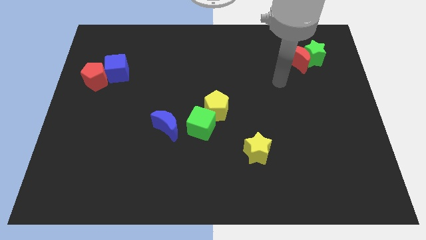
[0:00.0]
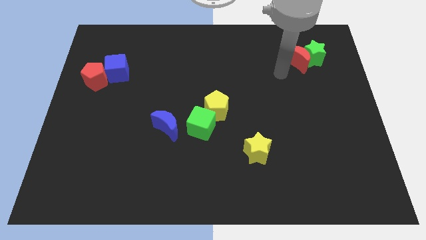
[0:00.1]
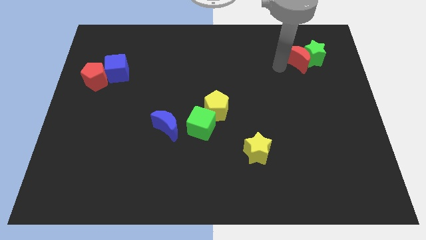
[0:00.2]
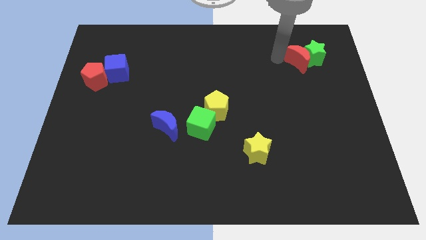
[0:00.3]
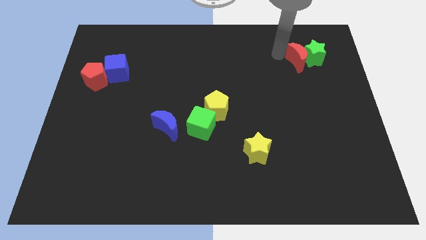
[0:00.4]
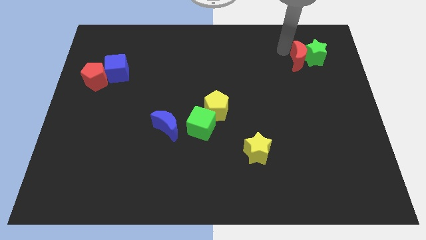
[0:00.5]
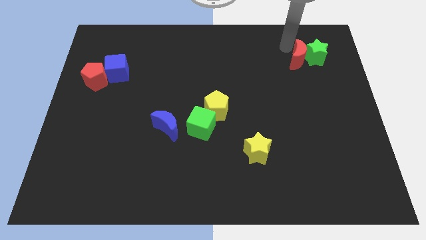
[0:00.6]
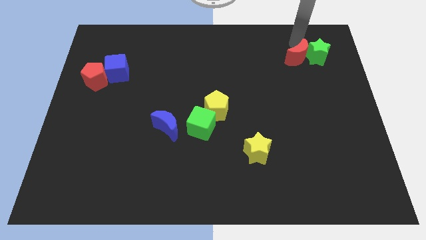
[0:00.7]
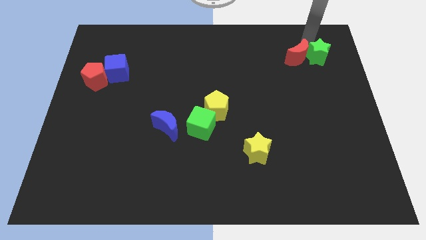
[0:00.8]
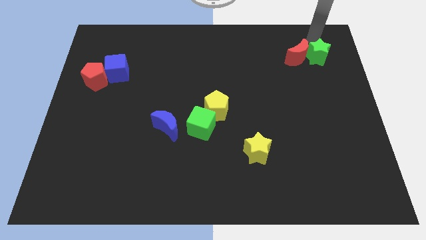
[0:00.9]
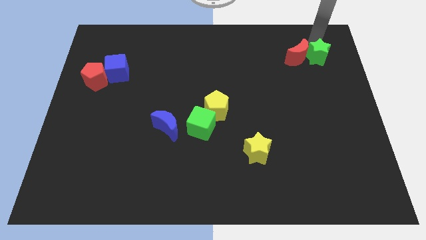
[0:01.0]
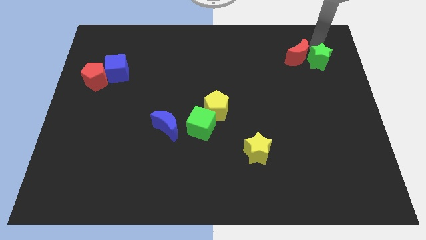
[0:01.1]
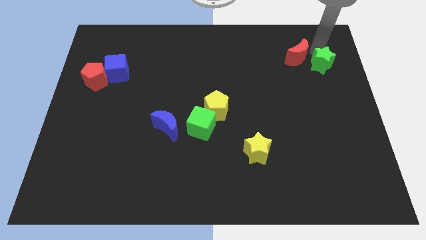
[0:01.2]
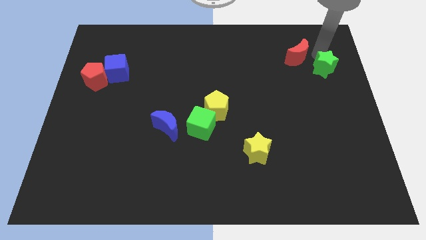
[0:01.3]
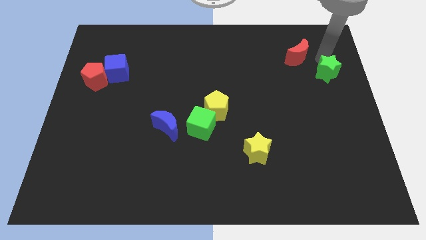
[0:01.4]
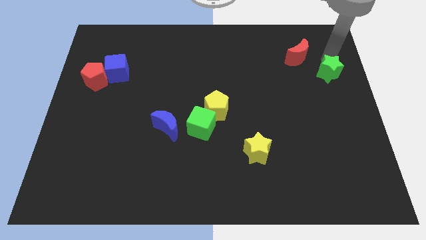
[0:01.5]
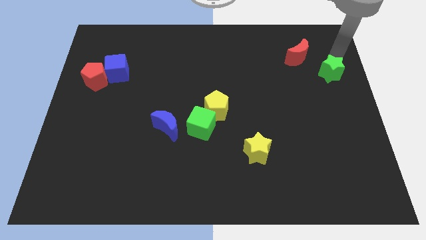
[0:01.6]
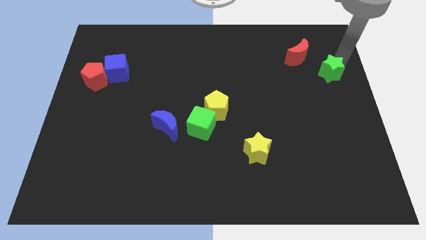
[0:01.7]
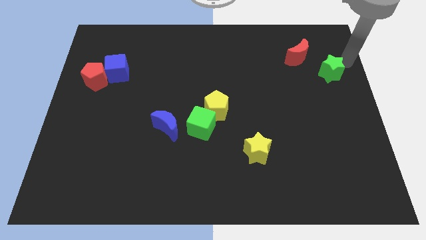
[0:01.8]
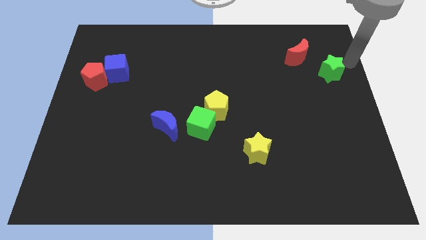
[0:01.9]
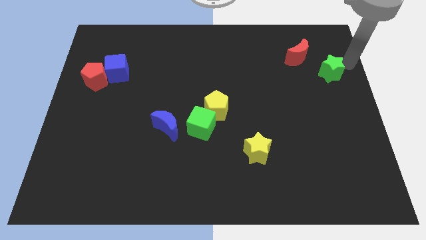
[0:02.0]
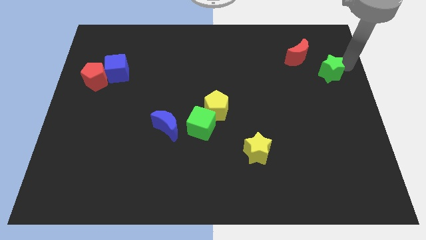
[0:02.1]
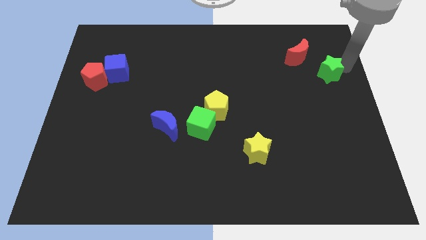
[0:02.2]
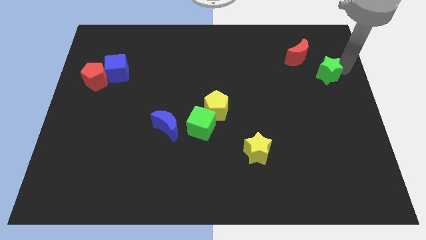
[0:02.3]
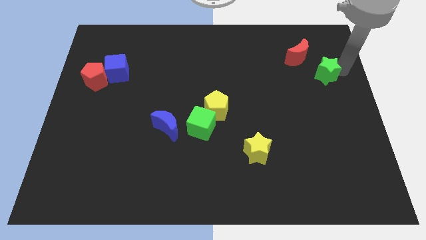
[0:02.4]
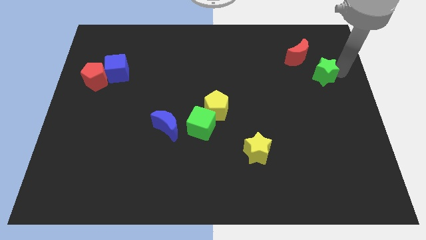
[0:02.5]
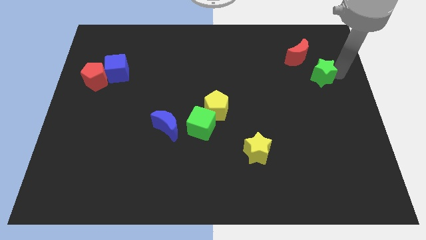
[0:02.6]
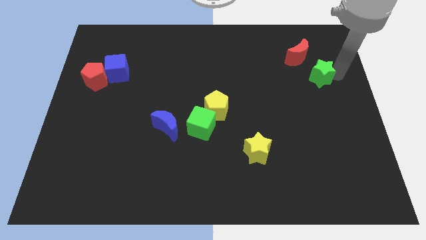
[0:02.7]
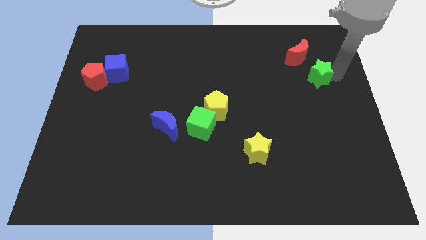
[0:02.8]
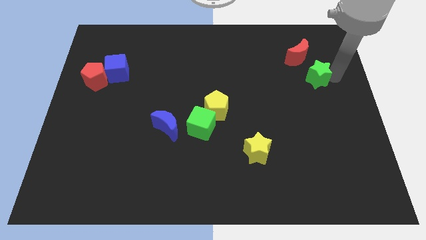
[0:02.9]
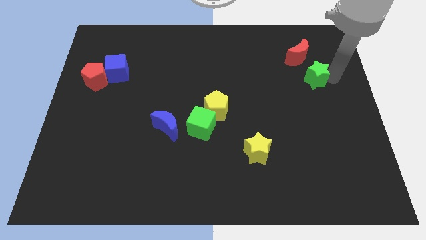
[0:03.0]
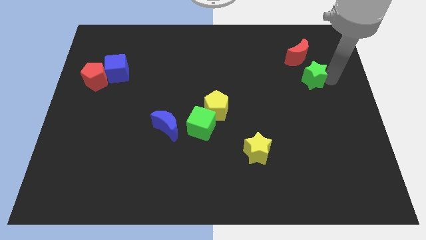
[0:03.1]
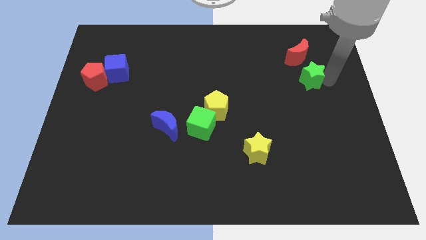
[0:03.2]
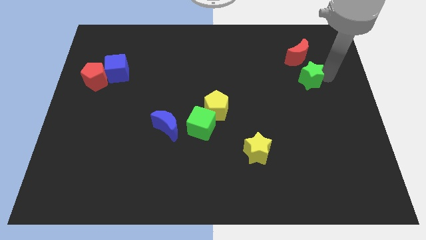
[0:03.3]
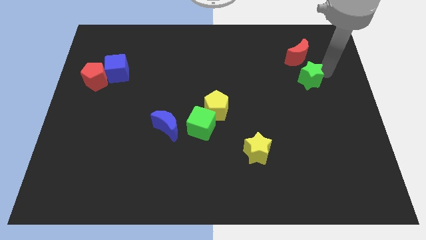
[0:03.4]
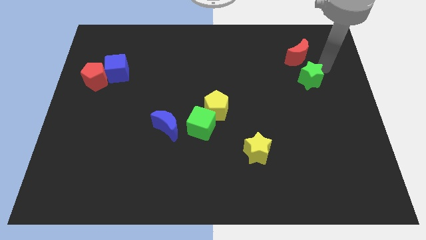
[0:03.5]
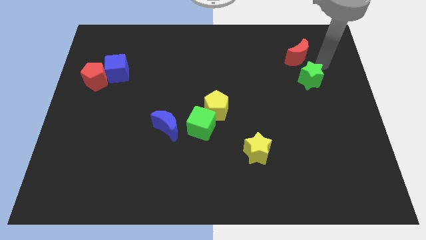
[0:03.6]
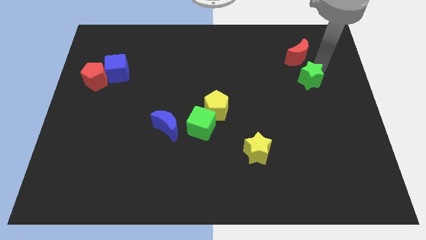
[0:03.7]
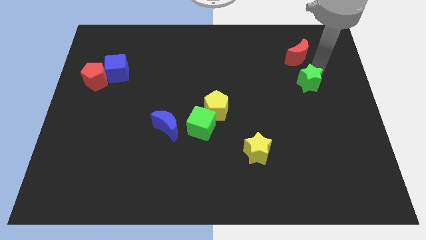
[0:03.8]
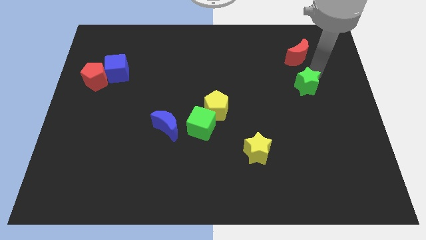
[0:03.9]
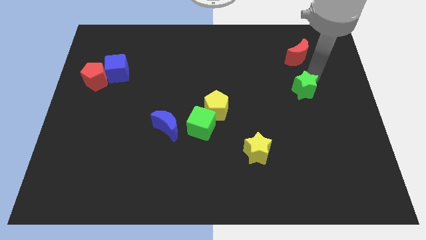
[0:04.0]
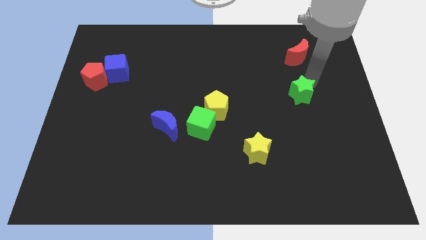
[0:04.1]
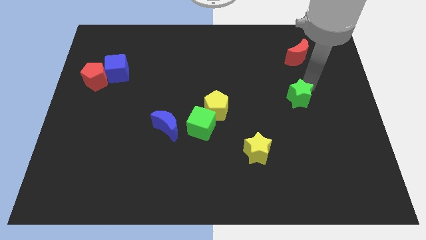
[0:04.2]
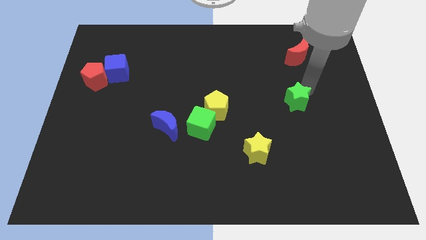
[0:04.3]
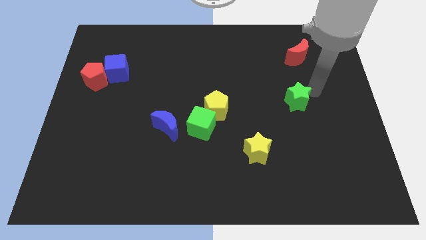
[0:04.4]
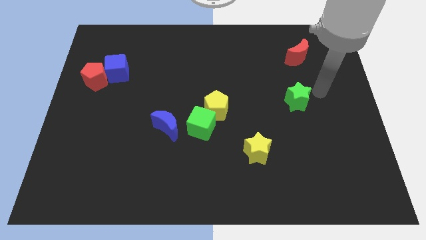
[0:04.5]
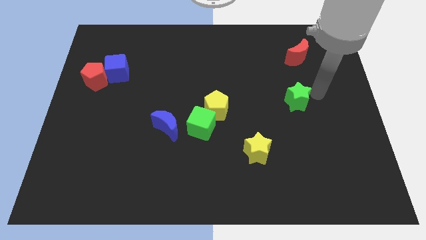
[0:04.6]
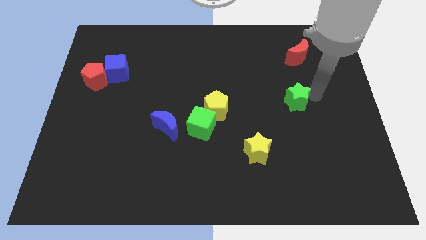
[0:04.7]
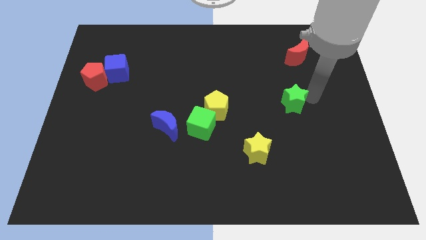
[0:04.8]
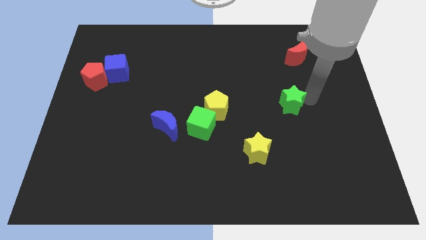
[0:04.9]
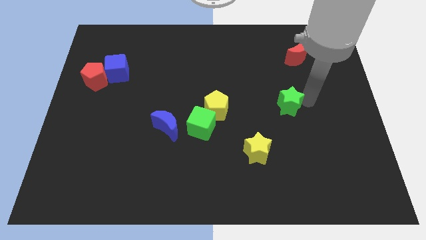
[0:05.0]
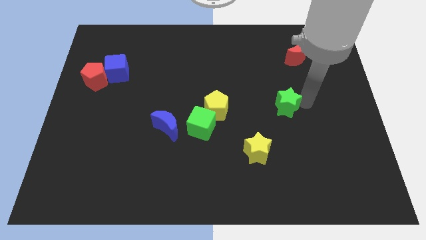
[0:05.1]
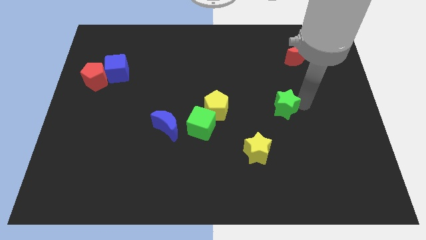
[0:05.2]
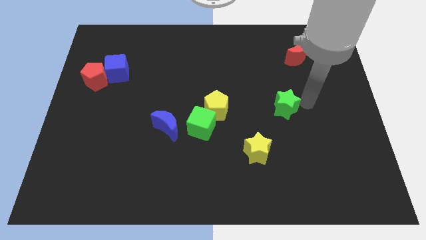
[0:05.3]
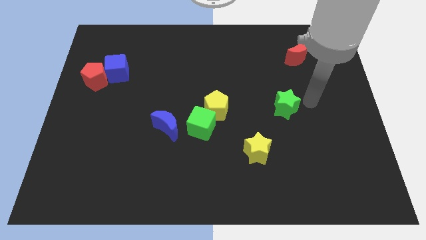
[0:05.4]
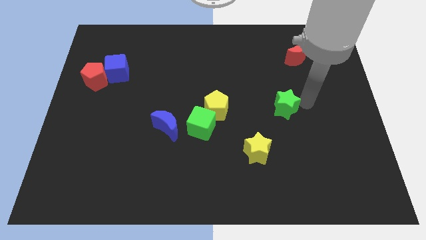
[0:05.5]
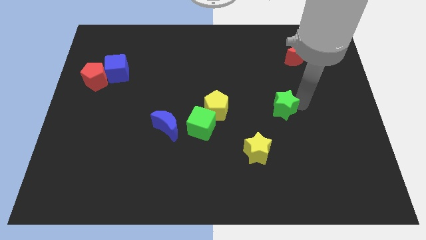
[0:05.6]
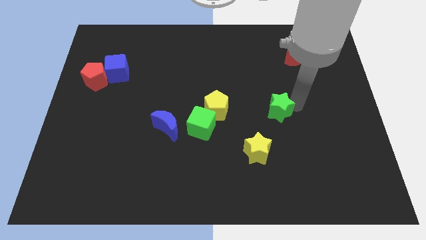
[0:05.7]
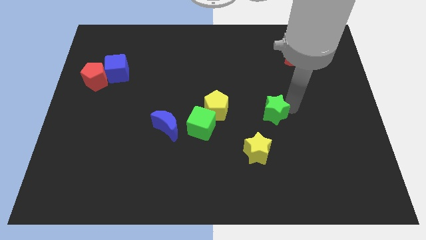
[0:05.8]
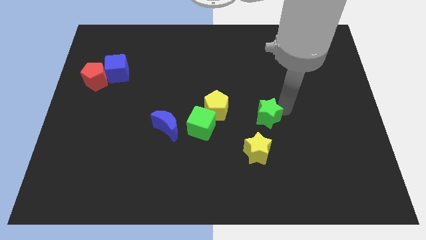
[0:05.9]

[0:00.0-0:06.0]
put the green star to the right of the green cube

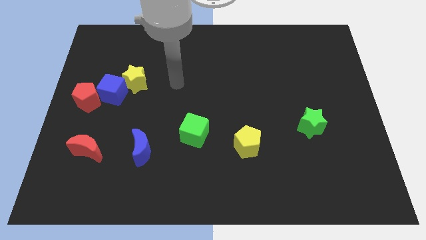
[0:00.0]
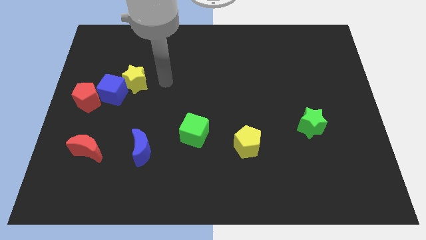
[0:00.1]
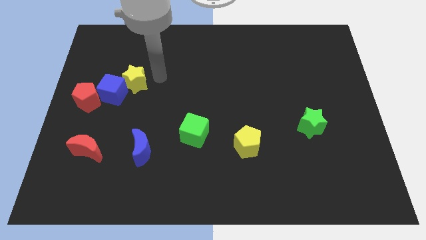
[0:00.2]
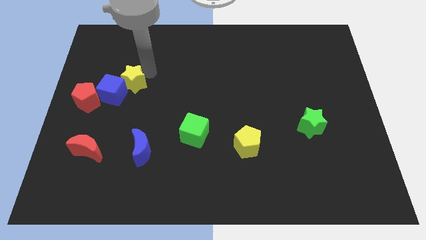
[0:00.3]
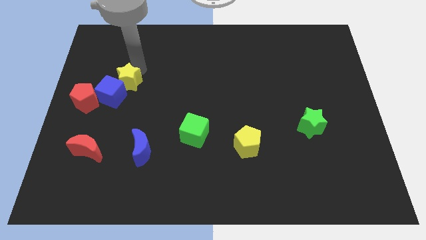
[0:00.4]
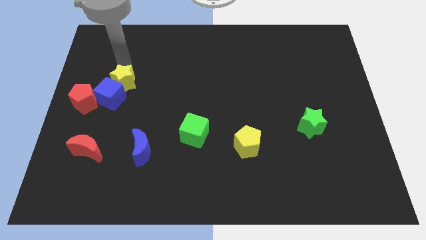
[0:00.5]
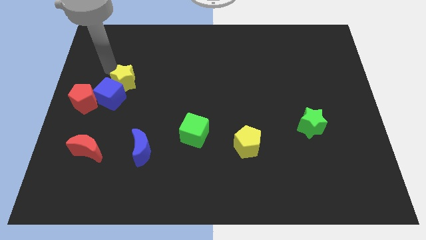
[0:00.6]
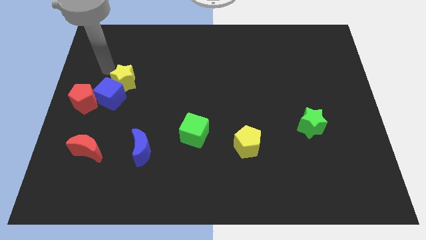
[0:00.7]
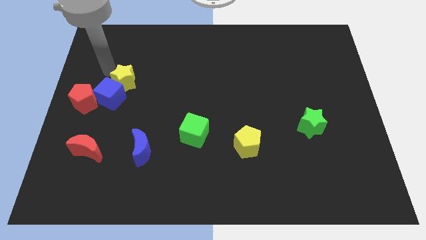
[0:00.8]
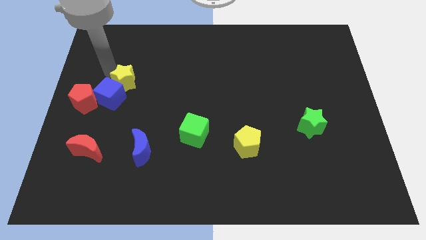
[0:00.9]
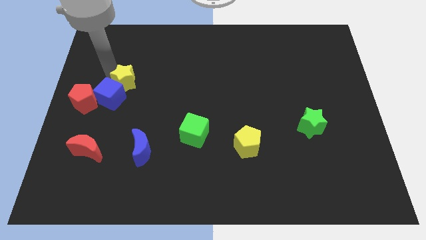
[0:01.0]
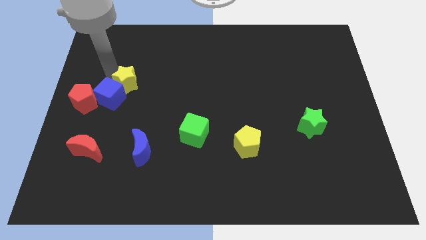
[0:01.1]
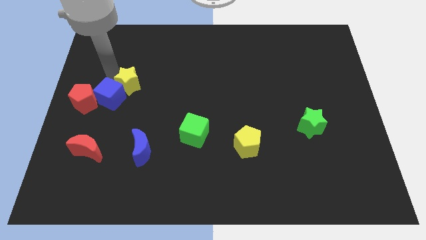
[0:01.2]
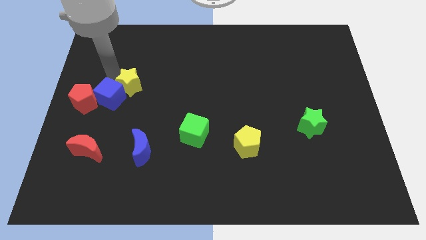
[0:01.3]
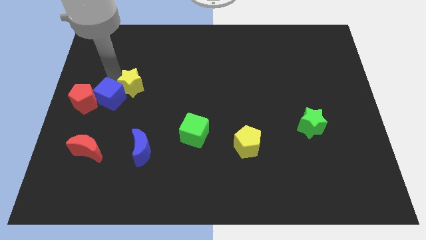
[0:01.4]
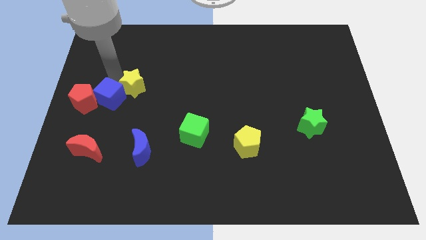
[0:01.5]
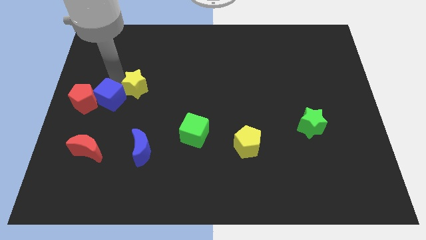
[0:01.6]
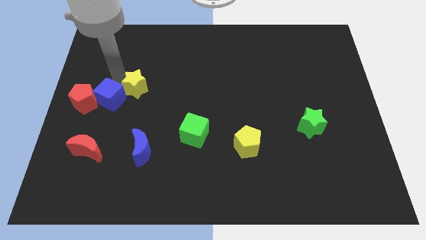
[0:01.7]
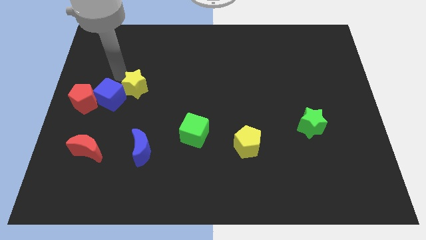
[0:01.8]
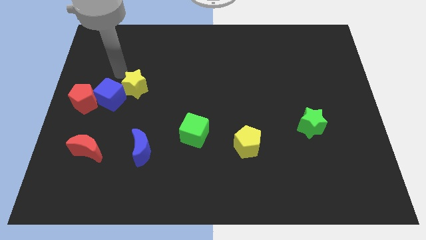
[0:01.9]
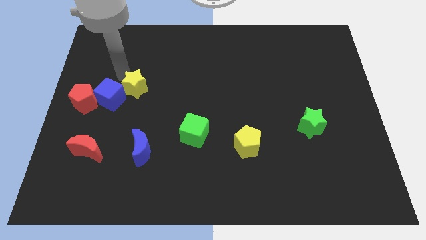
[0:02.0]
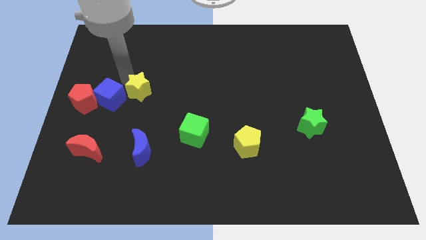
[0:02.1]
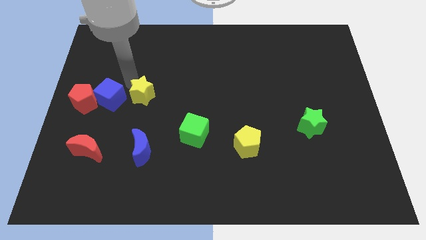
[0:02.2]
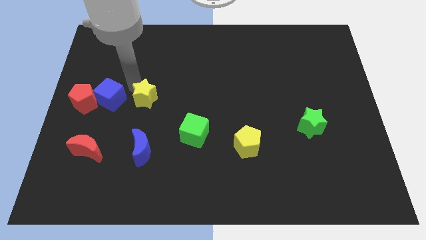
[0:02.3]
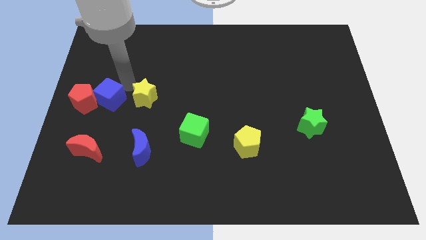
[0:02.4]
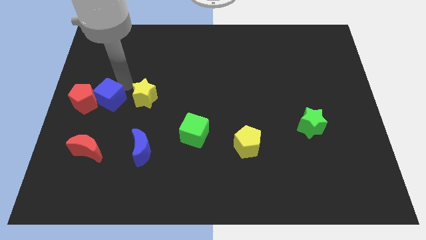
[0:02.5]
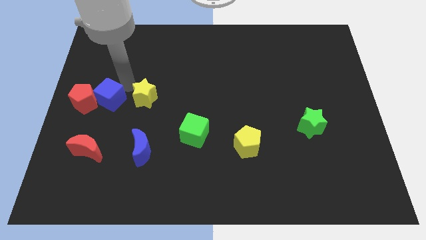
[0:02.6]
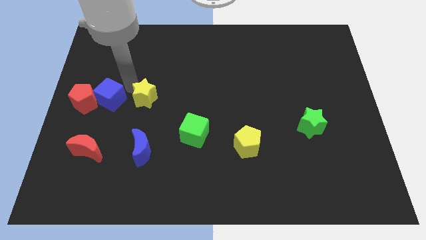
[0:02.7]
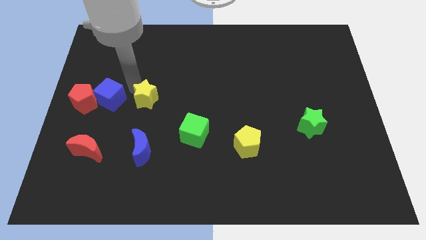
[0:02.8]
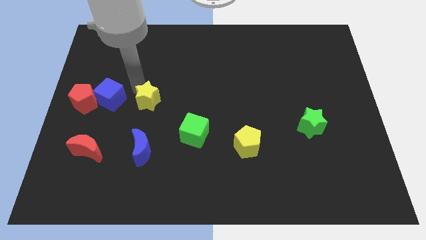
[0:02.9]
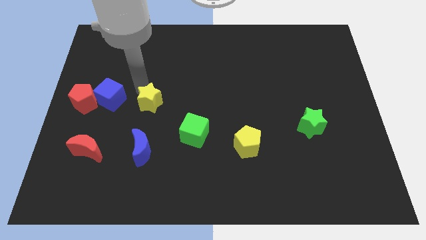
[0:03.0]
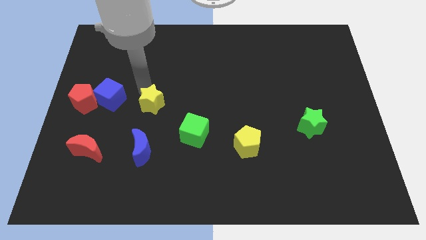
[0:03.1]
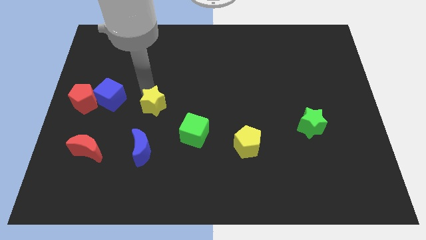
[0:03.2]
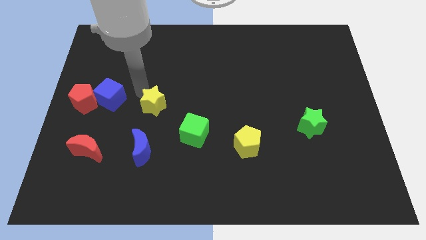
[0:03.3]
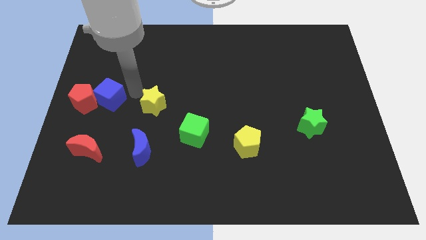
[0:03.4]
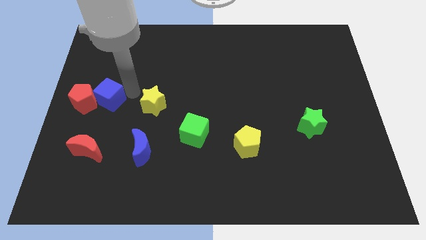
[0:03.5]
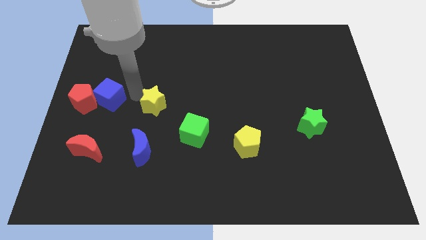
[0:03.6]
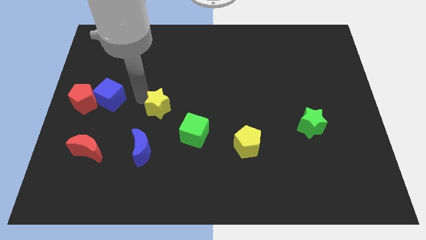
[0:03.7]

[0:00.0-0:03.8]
put the yellow star to the top left side of the green cube
